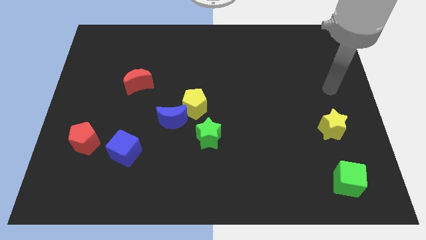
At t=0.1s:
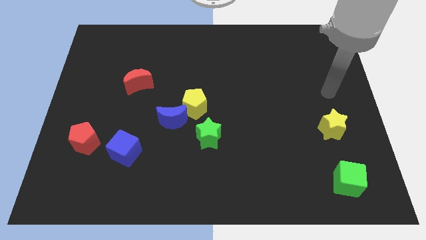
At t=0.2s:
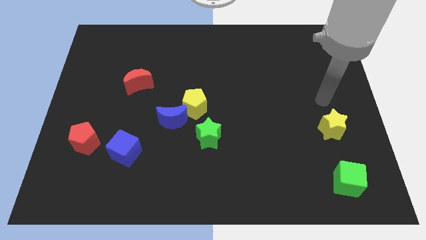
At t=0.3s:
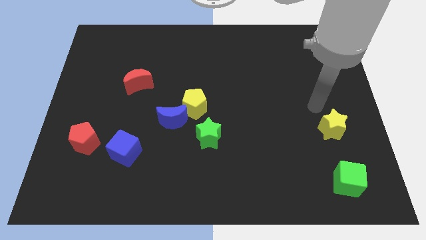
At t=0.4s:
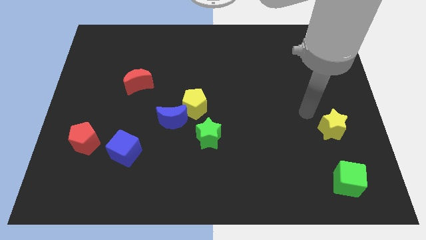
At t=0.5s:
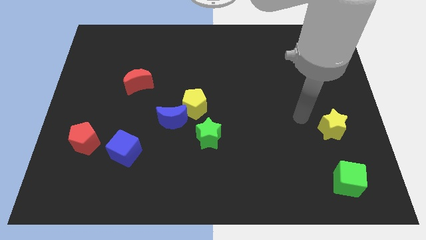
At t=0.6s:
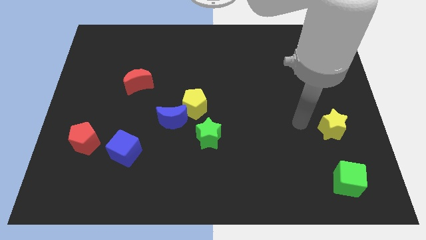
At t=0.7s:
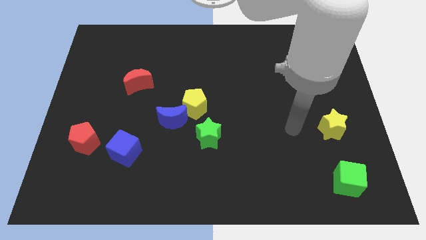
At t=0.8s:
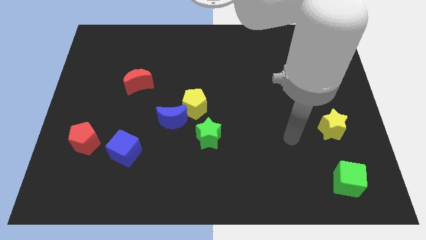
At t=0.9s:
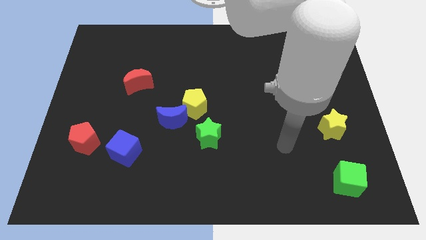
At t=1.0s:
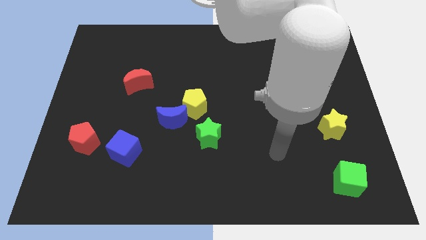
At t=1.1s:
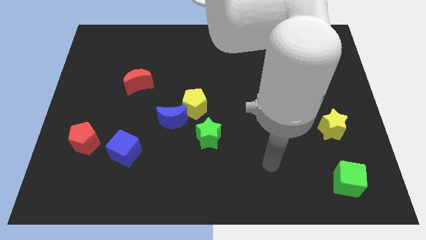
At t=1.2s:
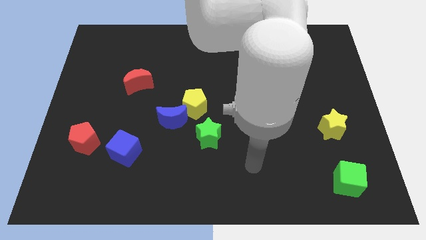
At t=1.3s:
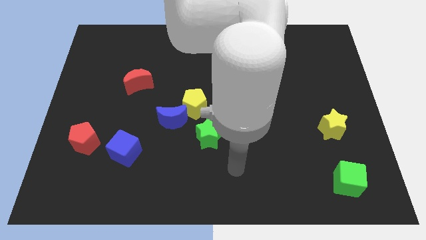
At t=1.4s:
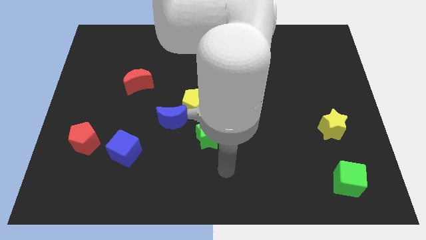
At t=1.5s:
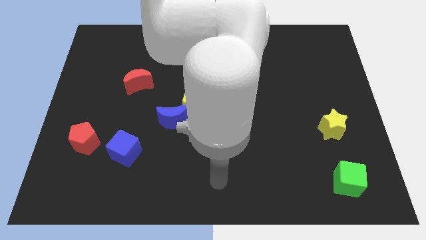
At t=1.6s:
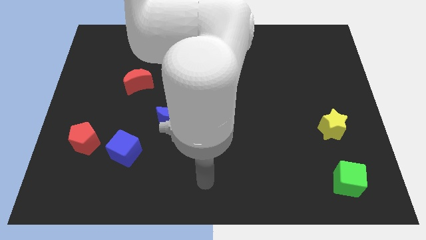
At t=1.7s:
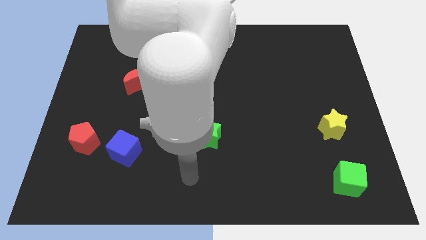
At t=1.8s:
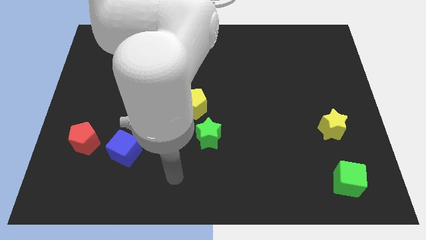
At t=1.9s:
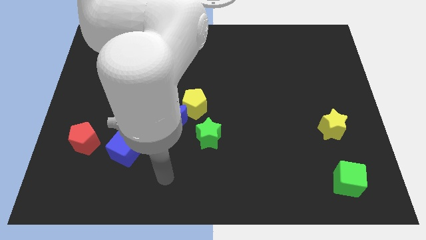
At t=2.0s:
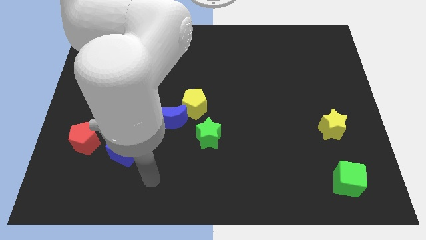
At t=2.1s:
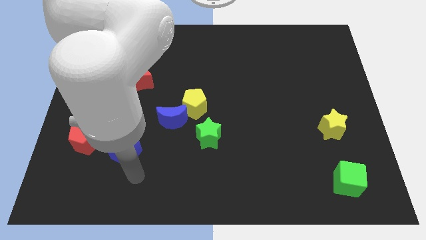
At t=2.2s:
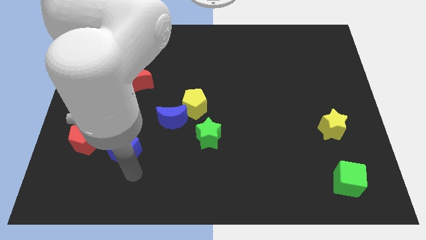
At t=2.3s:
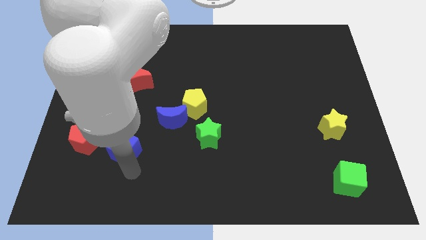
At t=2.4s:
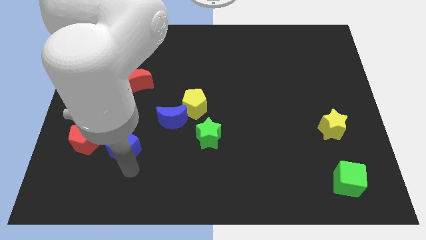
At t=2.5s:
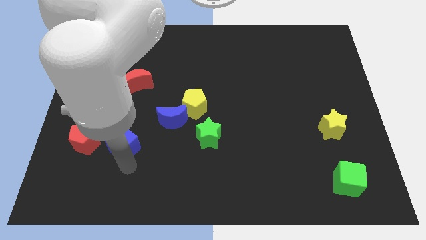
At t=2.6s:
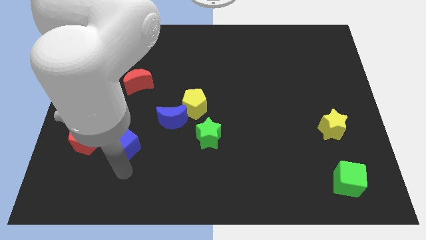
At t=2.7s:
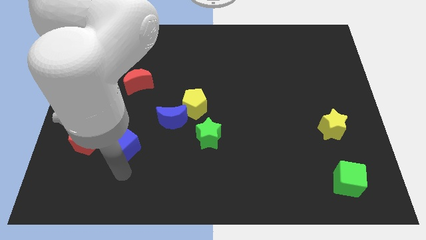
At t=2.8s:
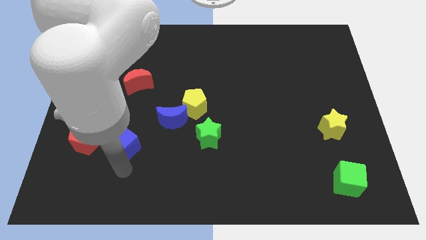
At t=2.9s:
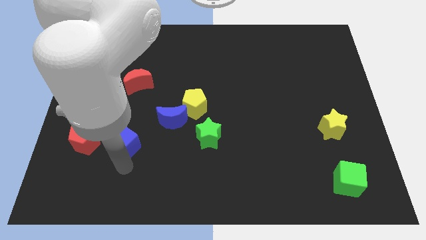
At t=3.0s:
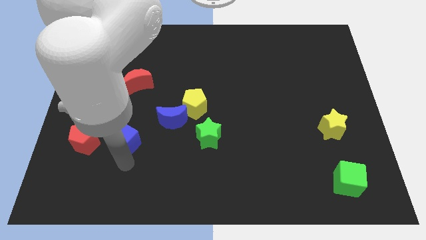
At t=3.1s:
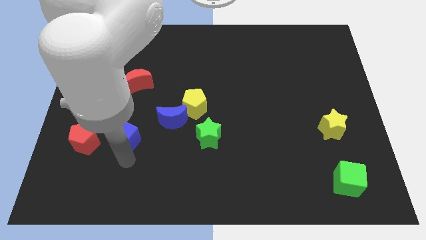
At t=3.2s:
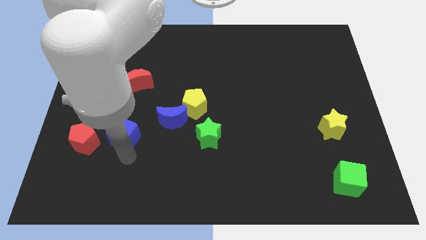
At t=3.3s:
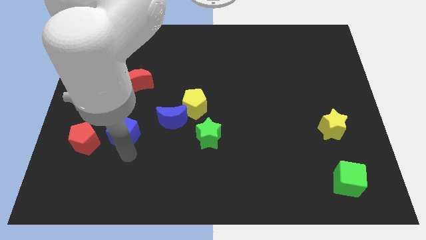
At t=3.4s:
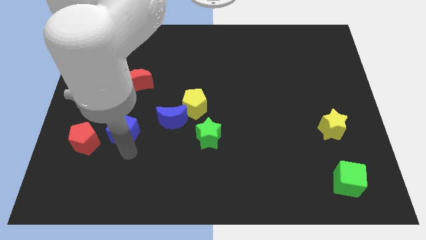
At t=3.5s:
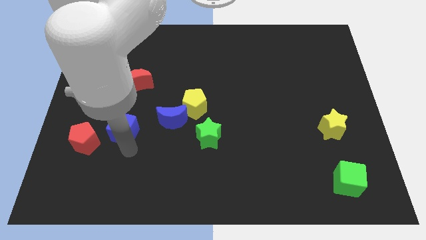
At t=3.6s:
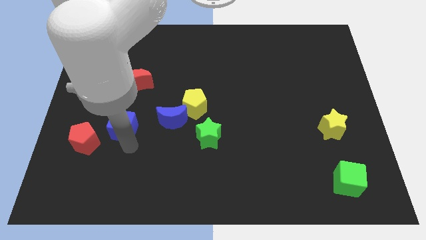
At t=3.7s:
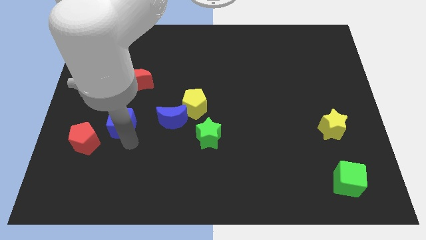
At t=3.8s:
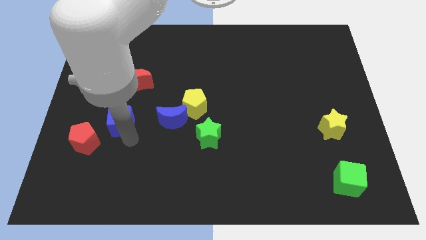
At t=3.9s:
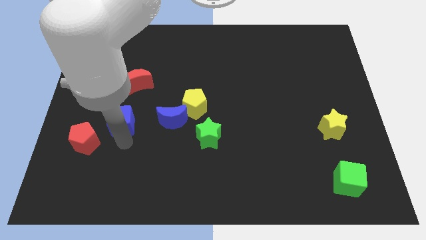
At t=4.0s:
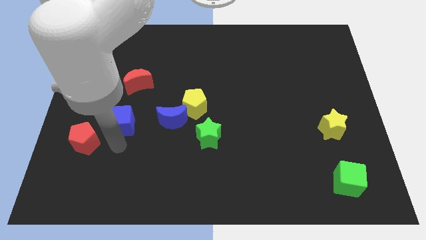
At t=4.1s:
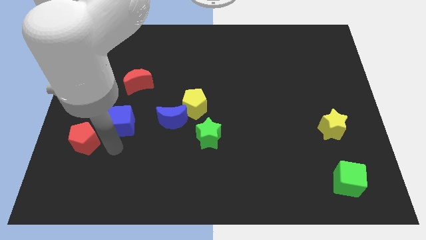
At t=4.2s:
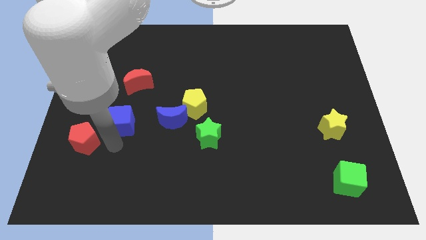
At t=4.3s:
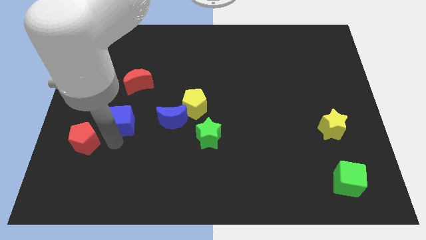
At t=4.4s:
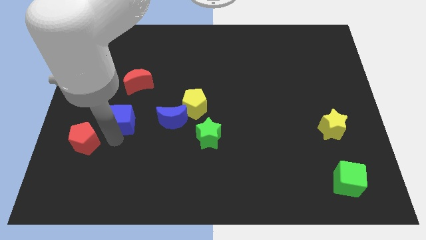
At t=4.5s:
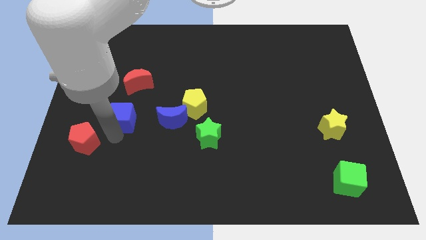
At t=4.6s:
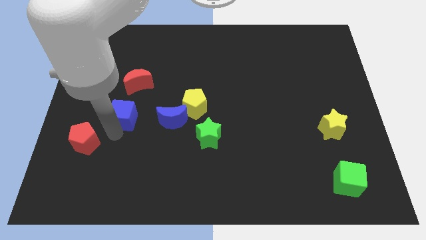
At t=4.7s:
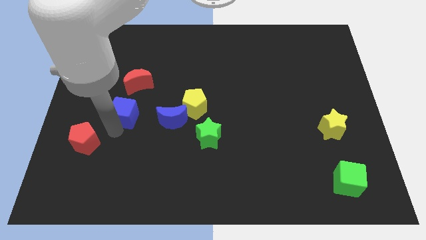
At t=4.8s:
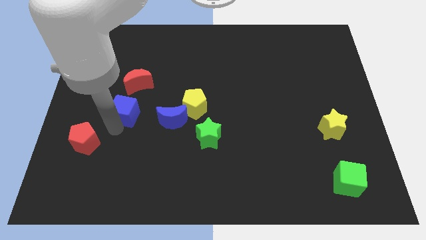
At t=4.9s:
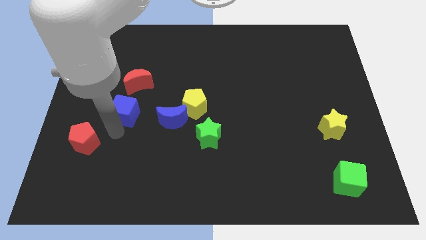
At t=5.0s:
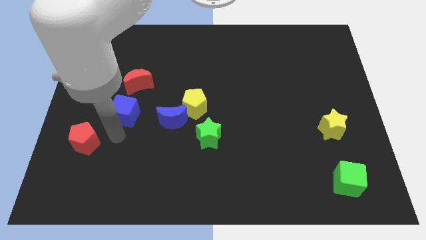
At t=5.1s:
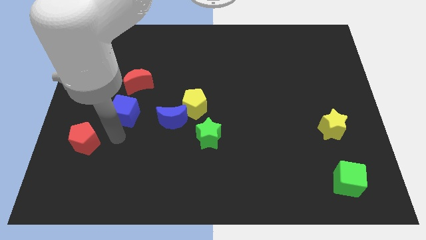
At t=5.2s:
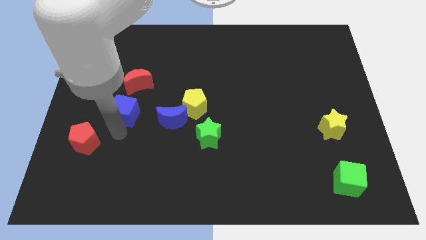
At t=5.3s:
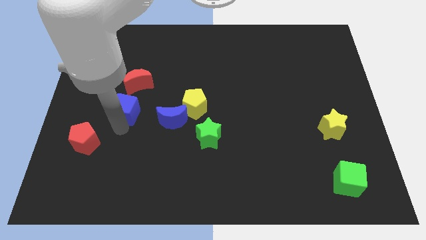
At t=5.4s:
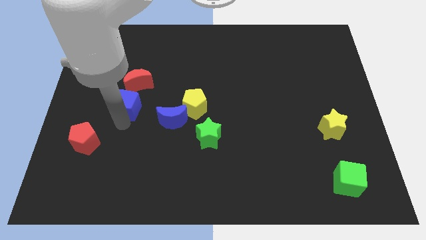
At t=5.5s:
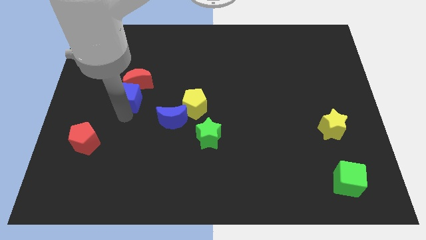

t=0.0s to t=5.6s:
push the blue cube towards the red moon

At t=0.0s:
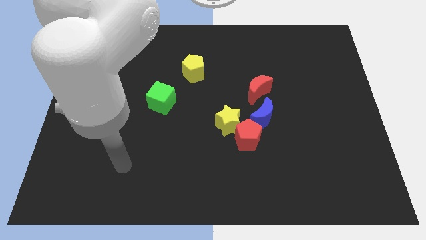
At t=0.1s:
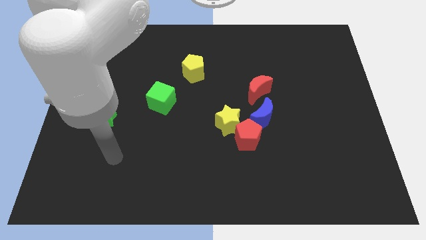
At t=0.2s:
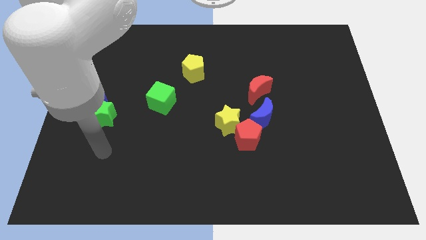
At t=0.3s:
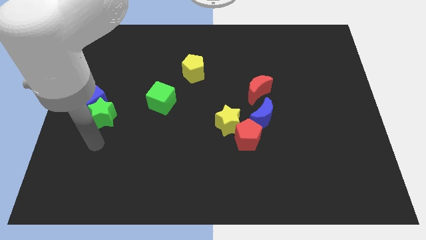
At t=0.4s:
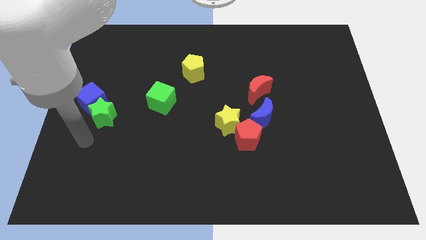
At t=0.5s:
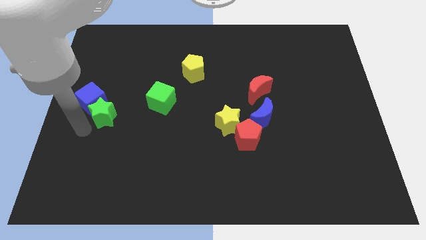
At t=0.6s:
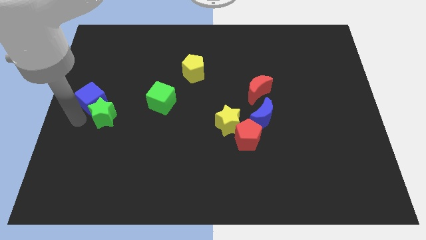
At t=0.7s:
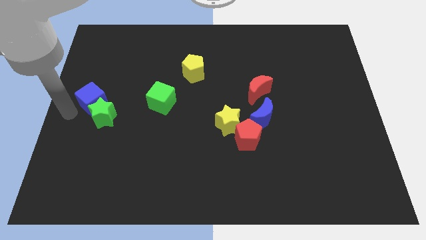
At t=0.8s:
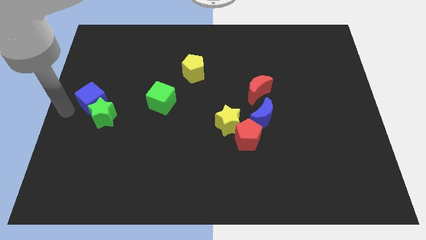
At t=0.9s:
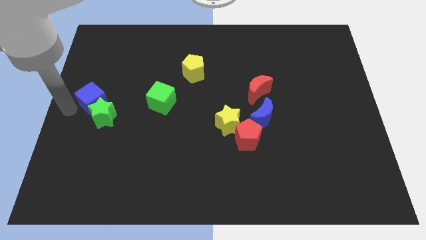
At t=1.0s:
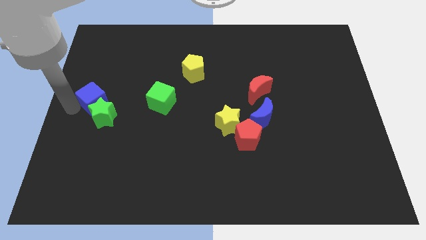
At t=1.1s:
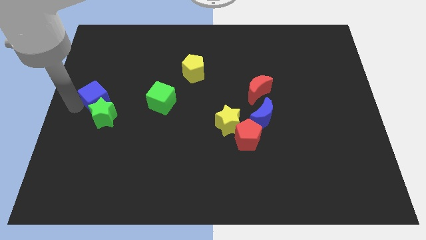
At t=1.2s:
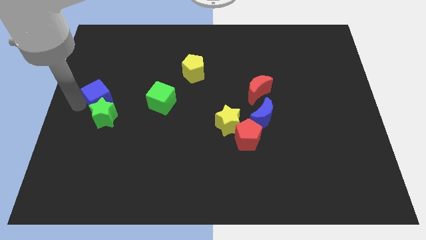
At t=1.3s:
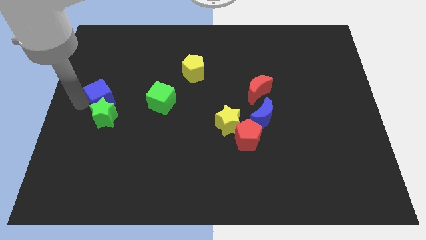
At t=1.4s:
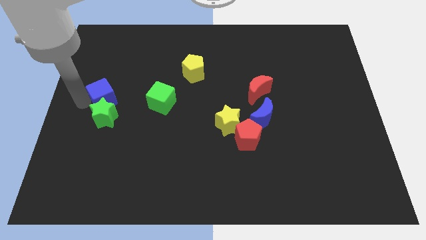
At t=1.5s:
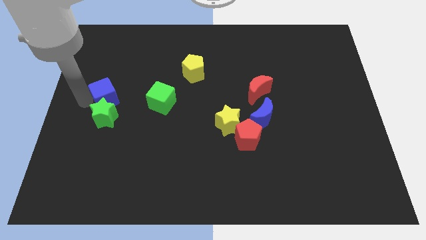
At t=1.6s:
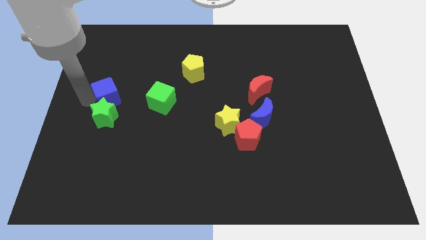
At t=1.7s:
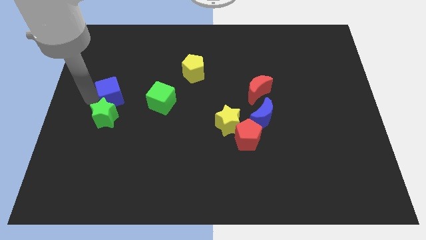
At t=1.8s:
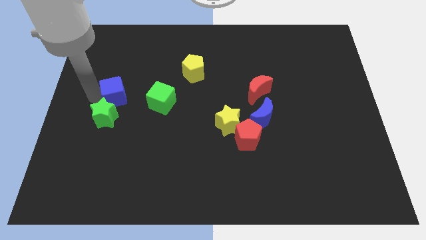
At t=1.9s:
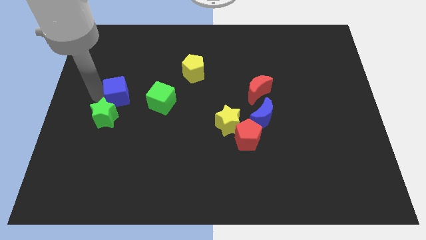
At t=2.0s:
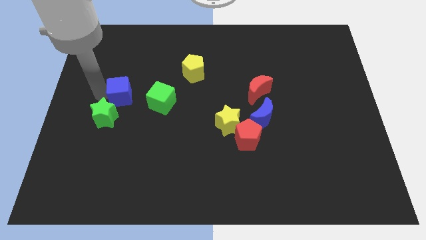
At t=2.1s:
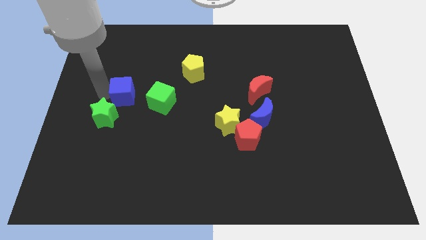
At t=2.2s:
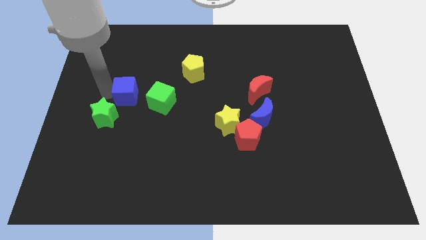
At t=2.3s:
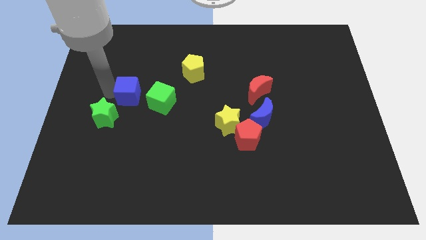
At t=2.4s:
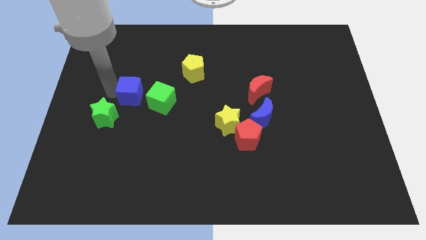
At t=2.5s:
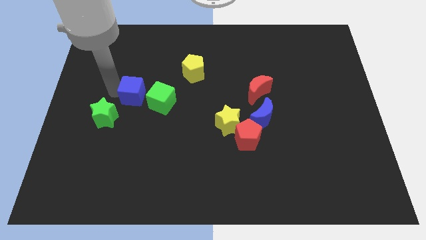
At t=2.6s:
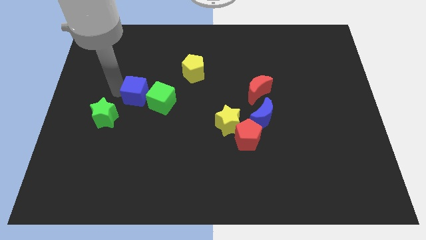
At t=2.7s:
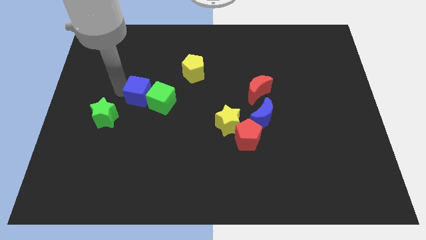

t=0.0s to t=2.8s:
slide the blue cube next to the green cube
